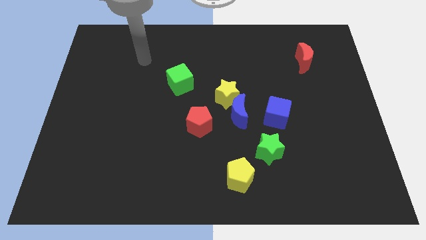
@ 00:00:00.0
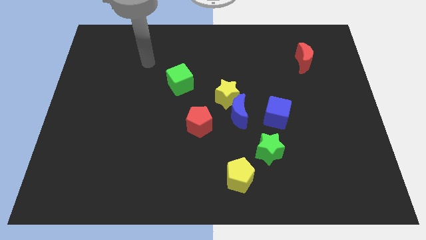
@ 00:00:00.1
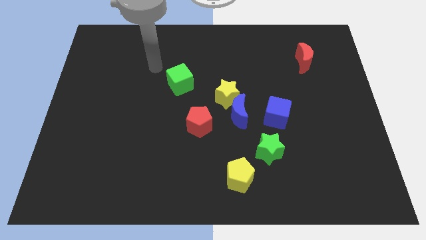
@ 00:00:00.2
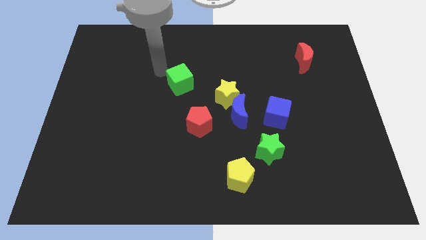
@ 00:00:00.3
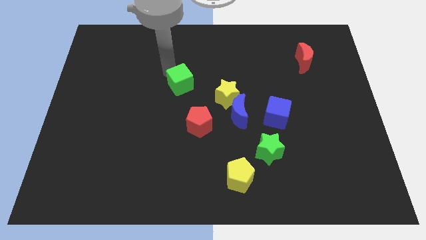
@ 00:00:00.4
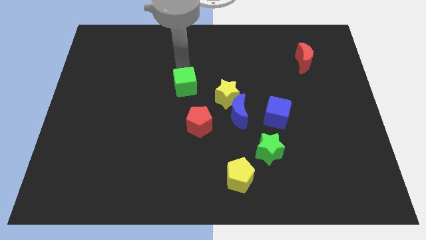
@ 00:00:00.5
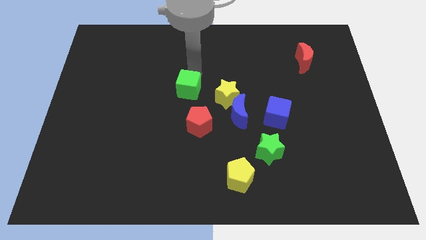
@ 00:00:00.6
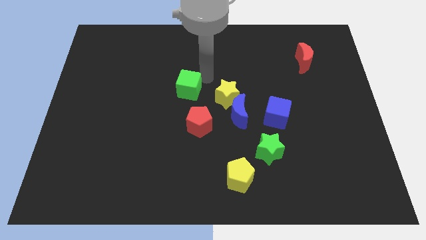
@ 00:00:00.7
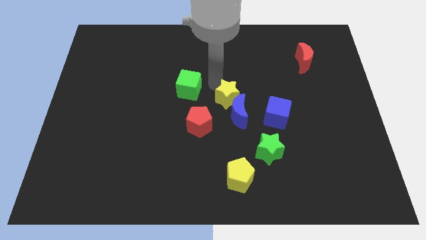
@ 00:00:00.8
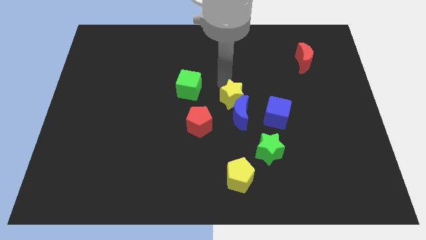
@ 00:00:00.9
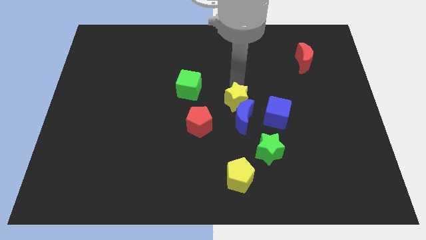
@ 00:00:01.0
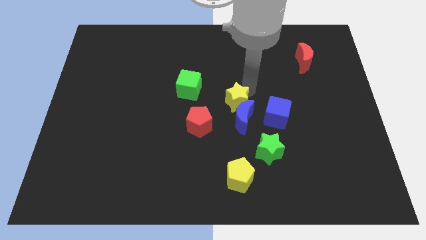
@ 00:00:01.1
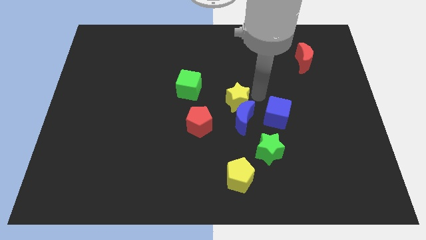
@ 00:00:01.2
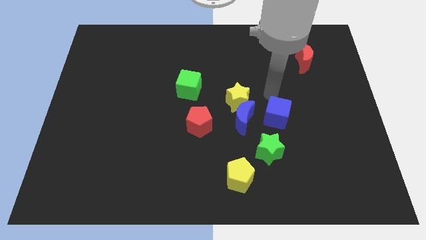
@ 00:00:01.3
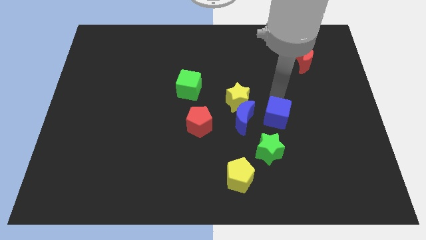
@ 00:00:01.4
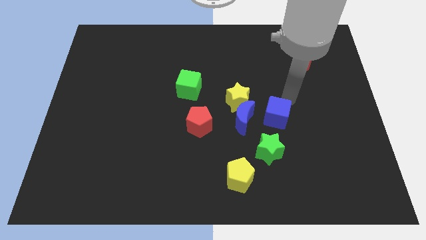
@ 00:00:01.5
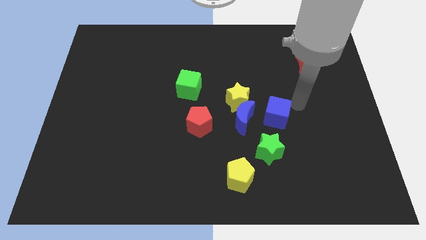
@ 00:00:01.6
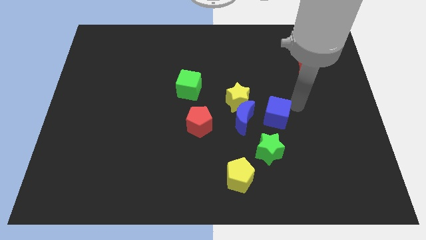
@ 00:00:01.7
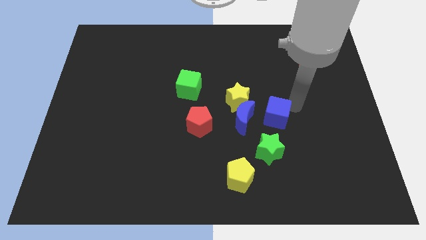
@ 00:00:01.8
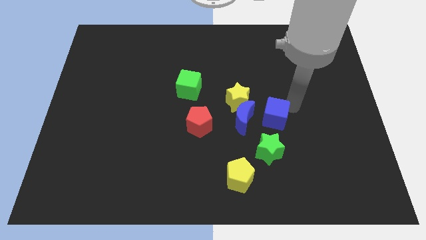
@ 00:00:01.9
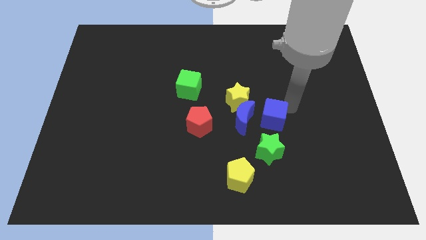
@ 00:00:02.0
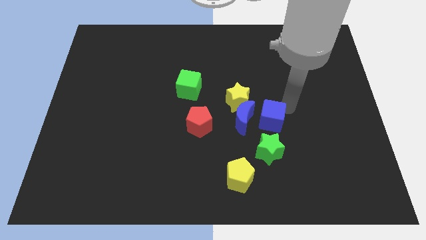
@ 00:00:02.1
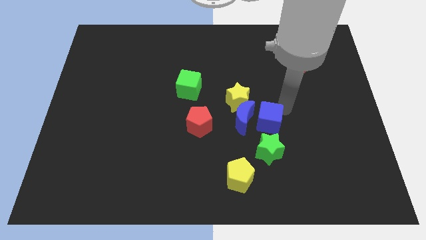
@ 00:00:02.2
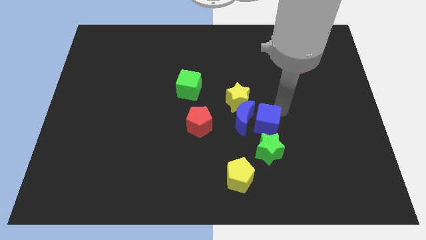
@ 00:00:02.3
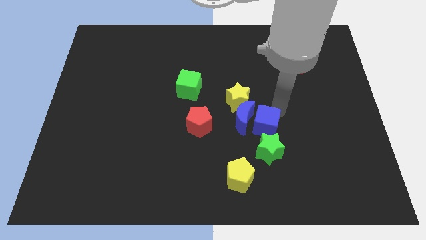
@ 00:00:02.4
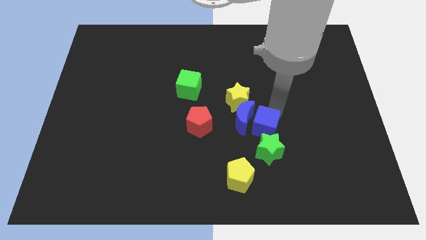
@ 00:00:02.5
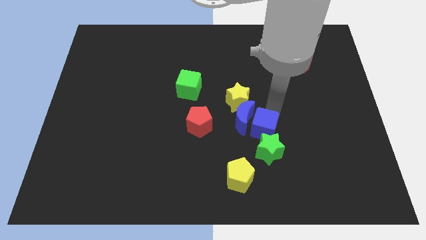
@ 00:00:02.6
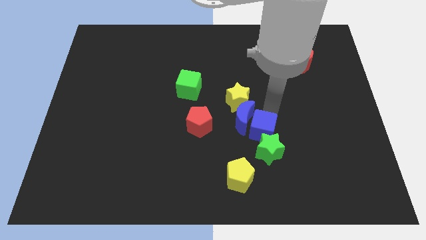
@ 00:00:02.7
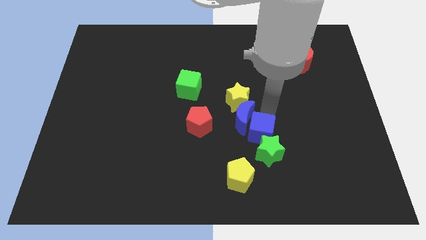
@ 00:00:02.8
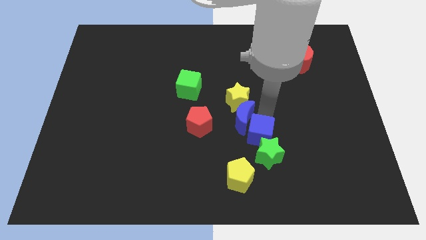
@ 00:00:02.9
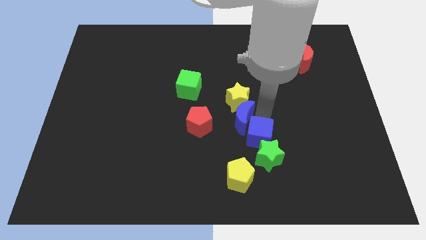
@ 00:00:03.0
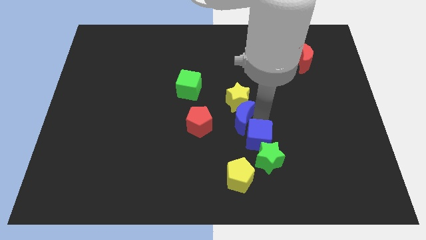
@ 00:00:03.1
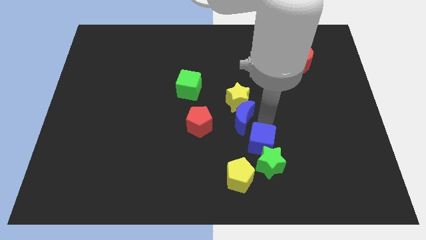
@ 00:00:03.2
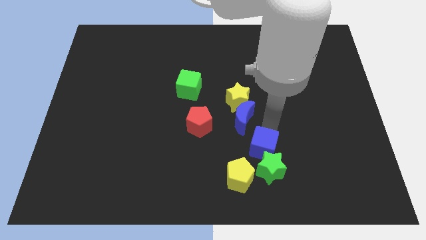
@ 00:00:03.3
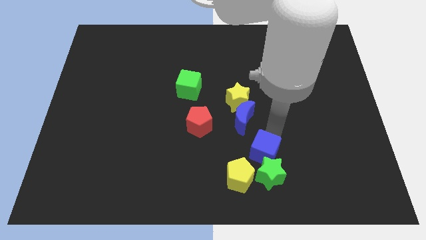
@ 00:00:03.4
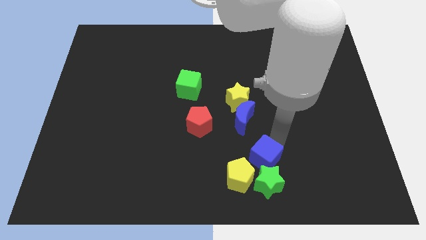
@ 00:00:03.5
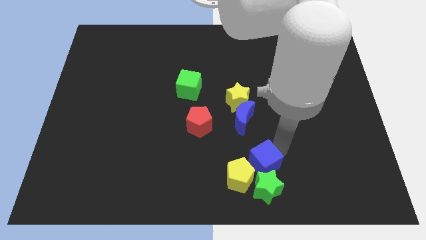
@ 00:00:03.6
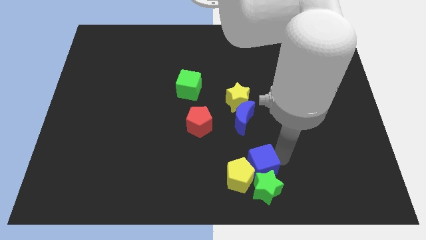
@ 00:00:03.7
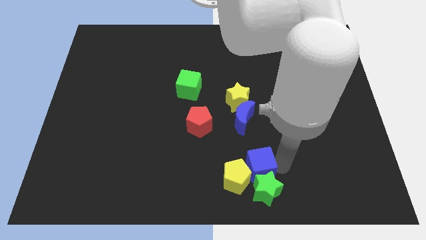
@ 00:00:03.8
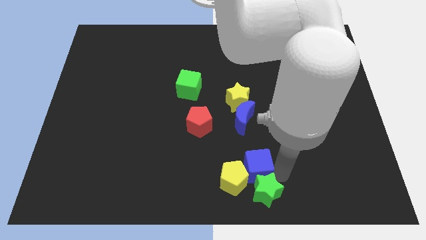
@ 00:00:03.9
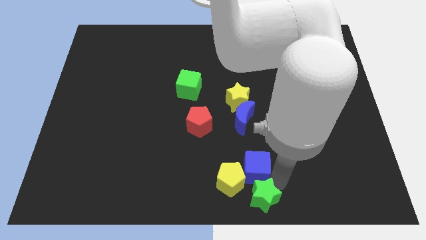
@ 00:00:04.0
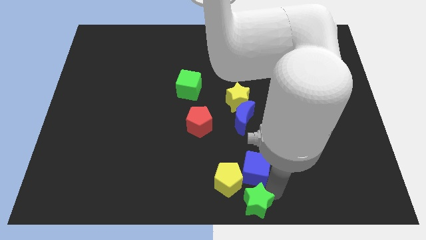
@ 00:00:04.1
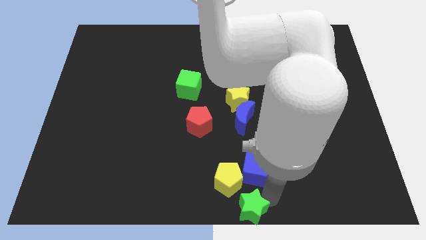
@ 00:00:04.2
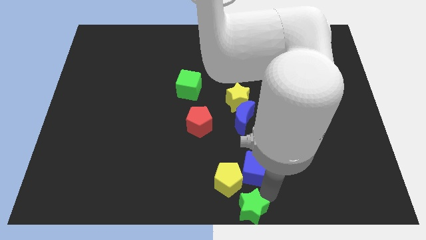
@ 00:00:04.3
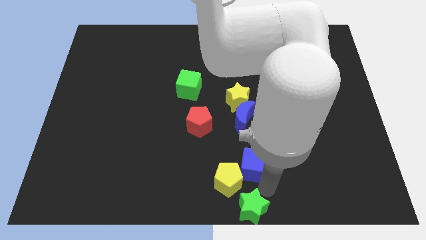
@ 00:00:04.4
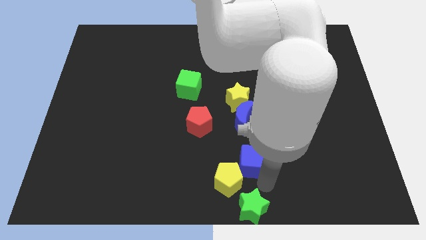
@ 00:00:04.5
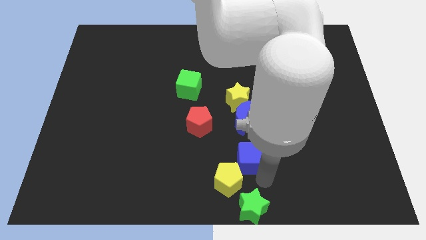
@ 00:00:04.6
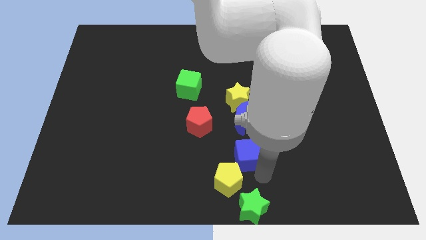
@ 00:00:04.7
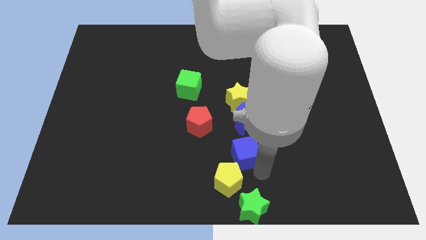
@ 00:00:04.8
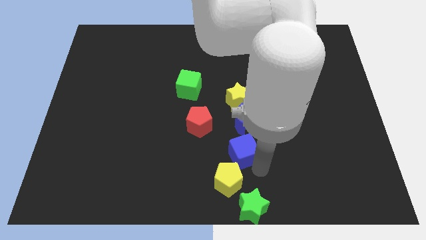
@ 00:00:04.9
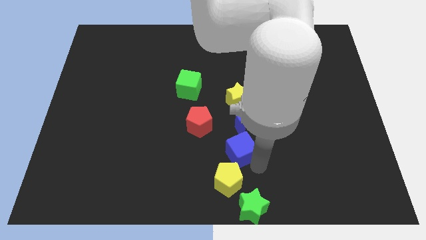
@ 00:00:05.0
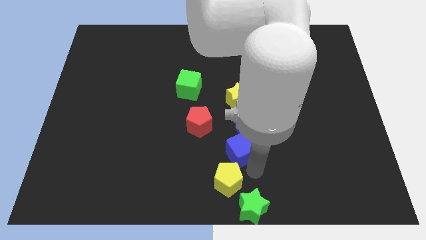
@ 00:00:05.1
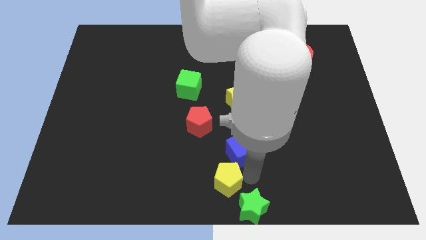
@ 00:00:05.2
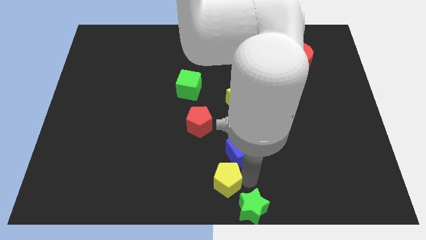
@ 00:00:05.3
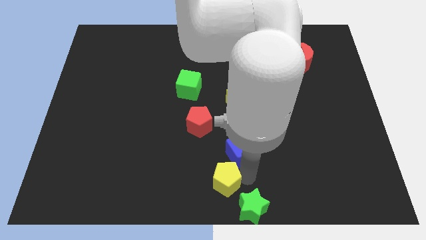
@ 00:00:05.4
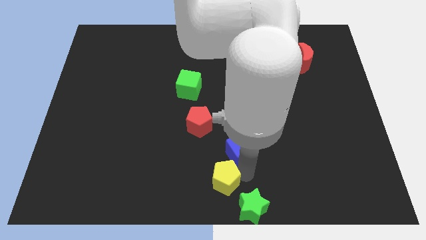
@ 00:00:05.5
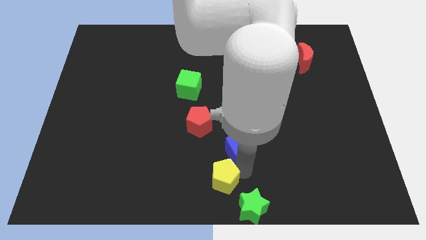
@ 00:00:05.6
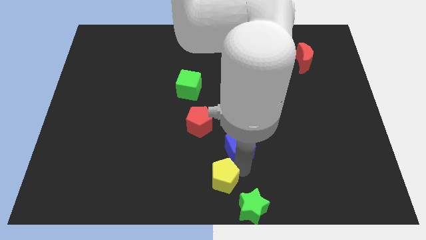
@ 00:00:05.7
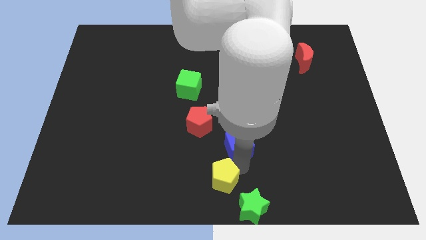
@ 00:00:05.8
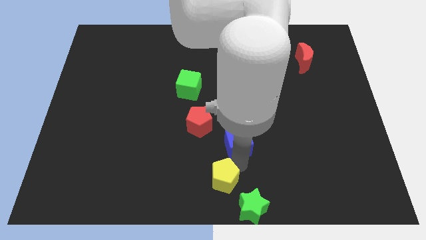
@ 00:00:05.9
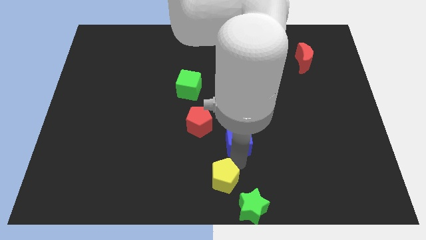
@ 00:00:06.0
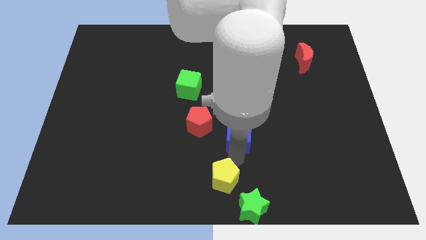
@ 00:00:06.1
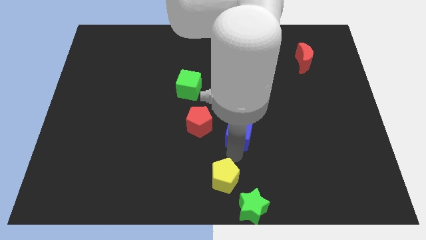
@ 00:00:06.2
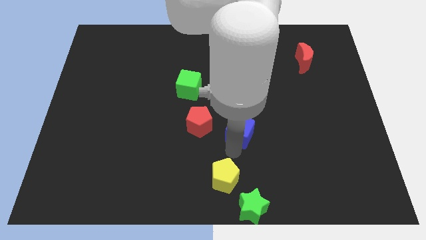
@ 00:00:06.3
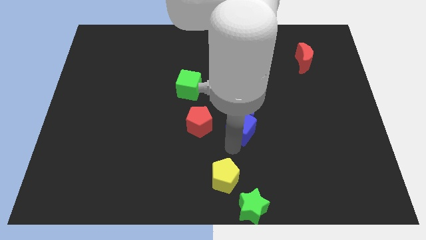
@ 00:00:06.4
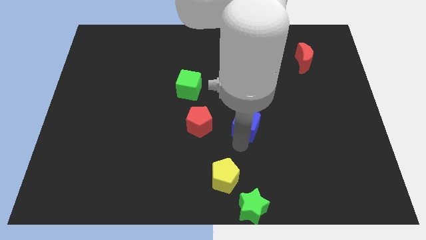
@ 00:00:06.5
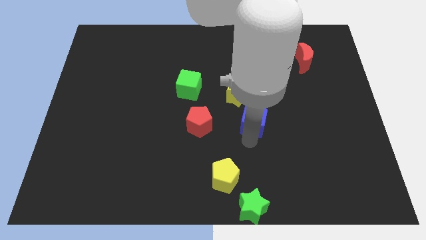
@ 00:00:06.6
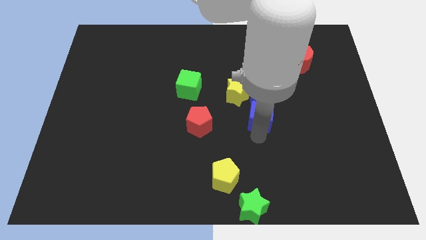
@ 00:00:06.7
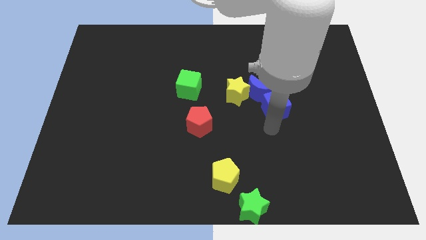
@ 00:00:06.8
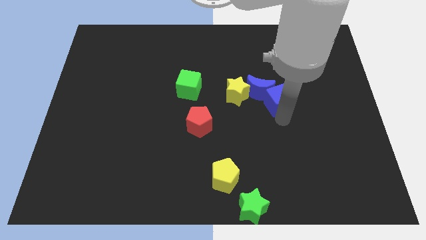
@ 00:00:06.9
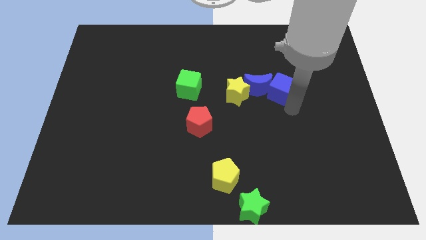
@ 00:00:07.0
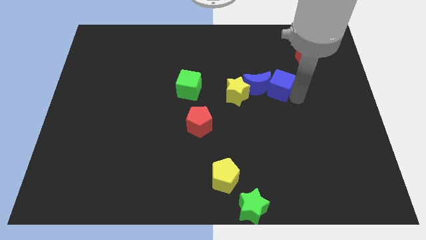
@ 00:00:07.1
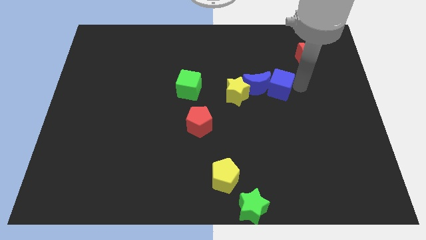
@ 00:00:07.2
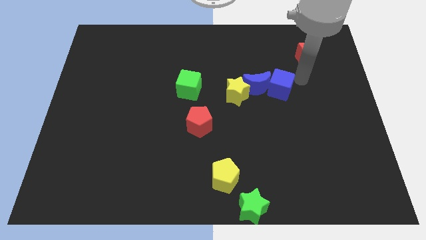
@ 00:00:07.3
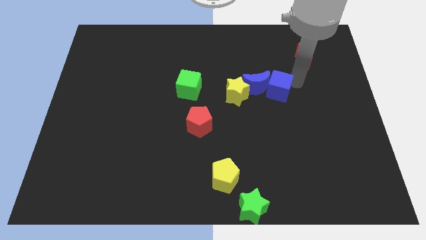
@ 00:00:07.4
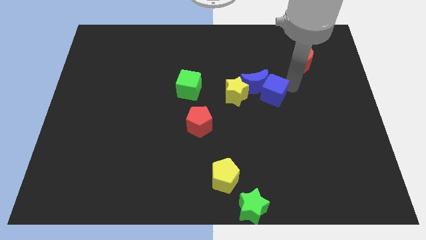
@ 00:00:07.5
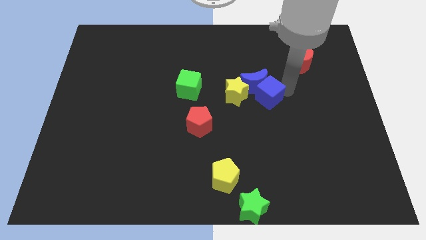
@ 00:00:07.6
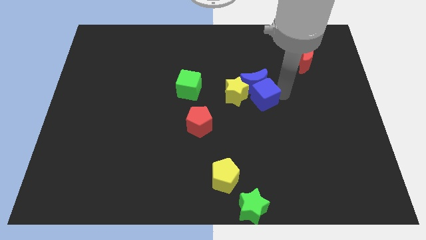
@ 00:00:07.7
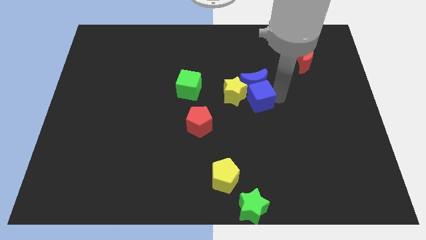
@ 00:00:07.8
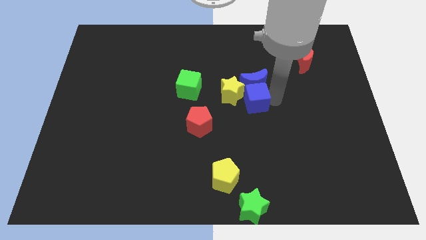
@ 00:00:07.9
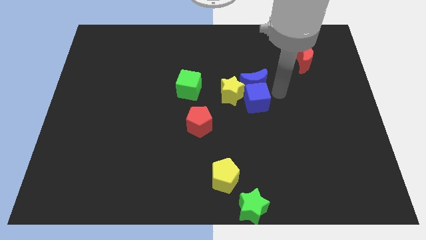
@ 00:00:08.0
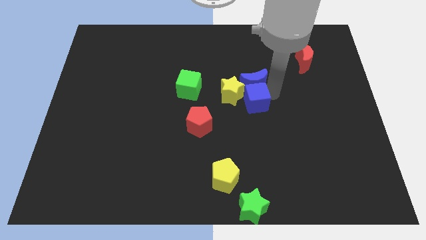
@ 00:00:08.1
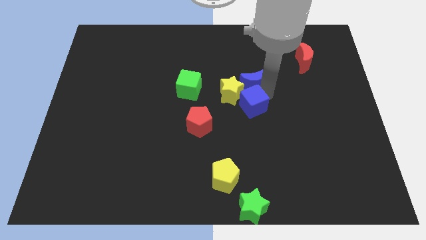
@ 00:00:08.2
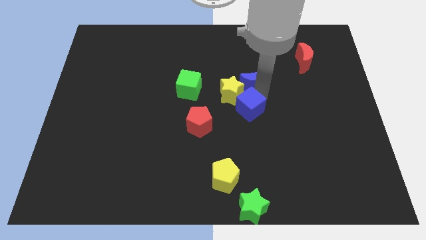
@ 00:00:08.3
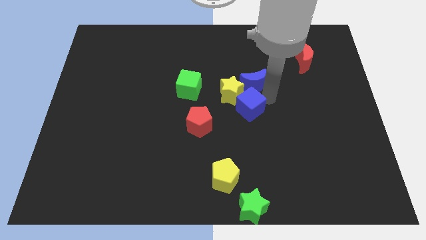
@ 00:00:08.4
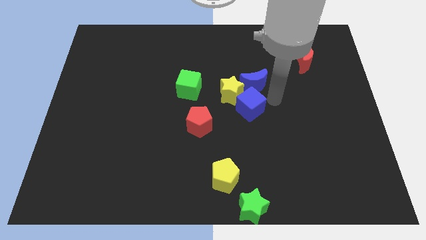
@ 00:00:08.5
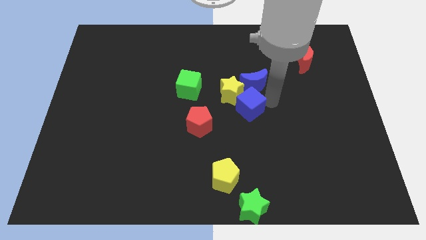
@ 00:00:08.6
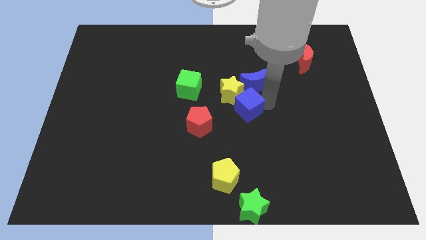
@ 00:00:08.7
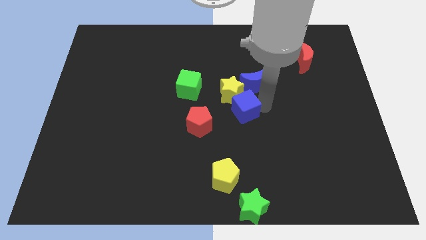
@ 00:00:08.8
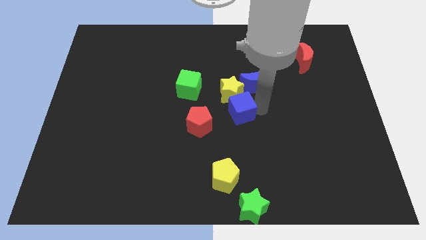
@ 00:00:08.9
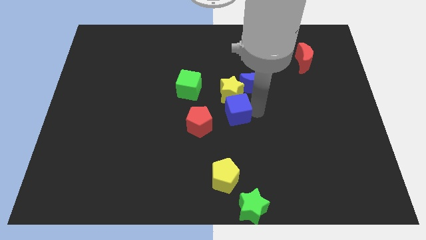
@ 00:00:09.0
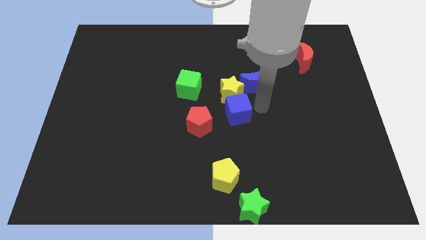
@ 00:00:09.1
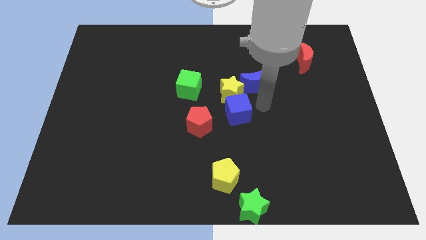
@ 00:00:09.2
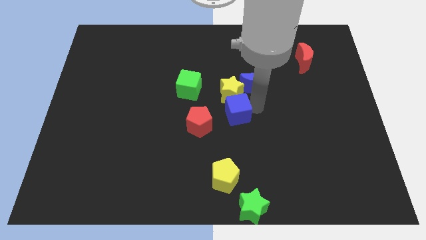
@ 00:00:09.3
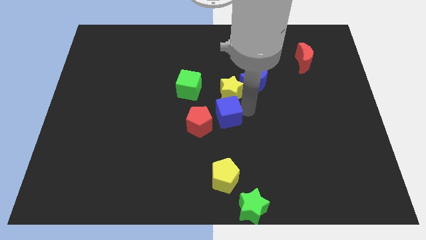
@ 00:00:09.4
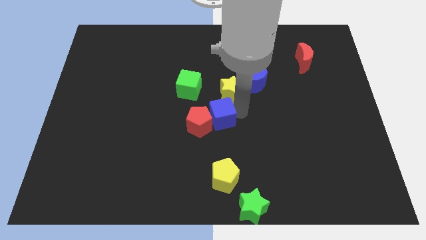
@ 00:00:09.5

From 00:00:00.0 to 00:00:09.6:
slide the blue cube next to the red pentagon
